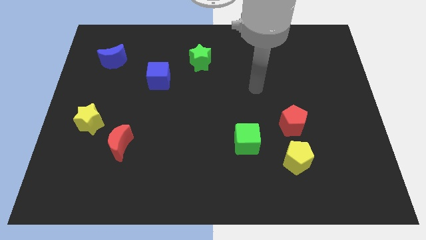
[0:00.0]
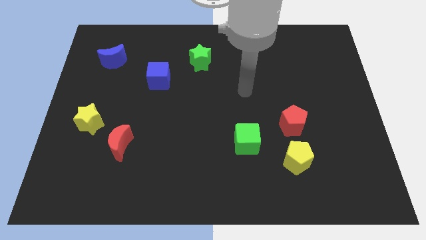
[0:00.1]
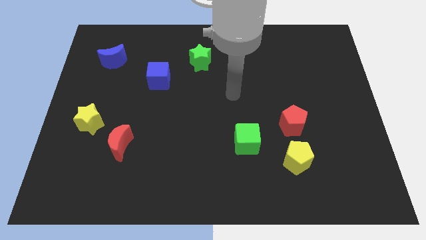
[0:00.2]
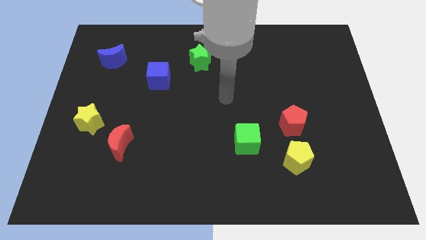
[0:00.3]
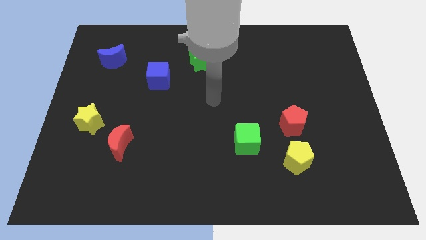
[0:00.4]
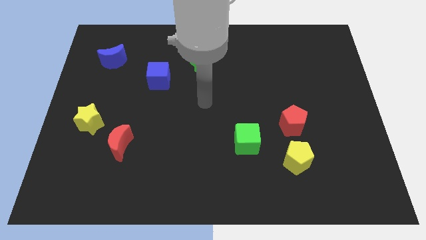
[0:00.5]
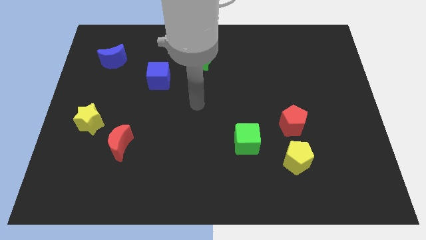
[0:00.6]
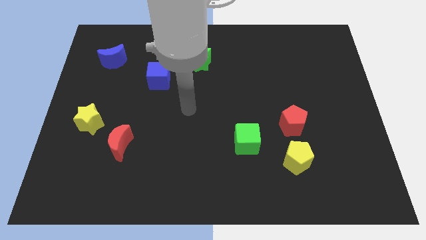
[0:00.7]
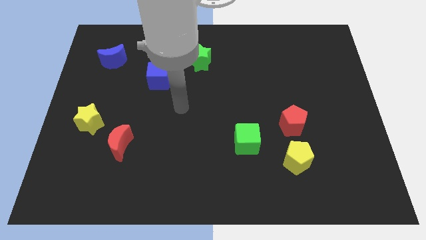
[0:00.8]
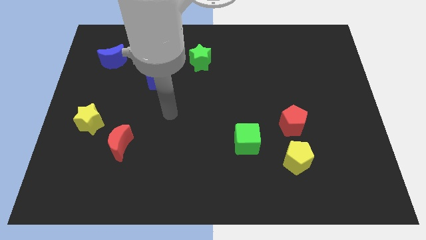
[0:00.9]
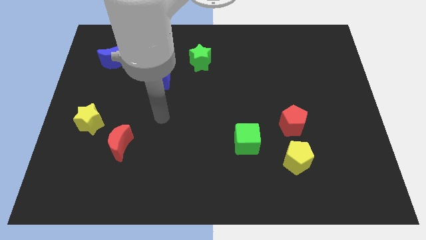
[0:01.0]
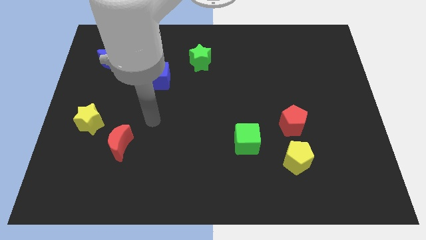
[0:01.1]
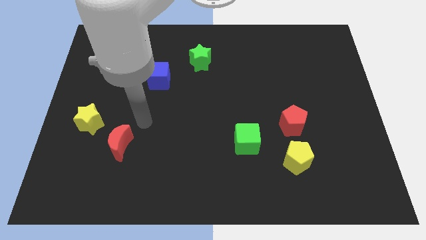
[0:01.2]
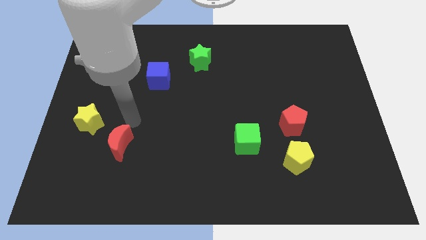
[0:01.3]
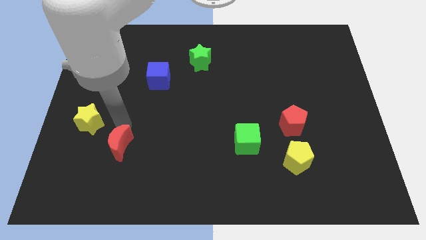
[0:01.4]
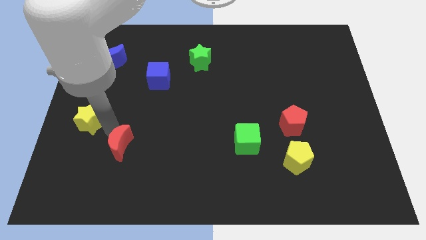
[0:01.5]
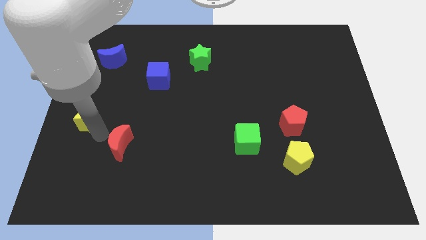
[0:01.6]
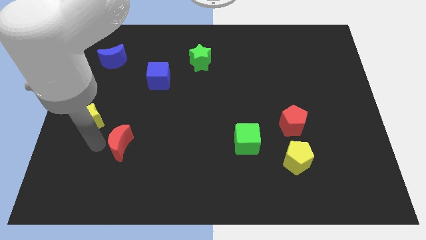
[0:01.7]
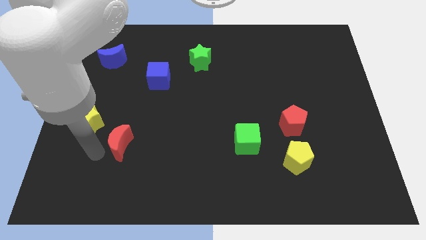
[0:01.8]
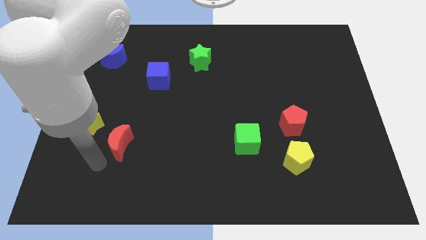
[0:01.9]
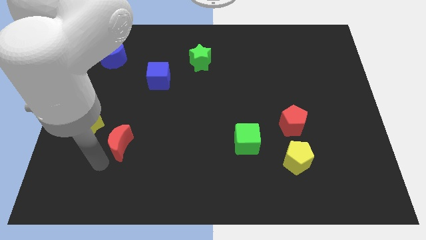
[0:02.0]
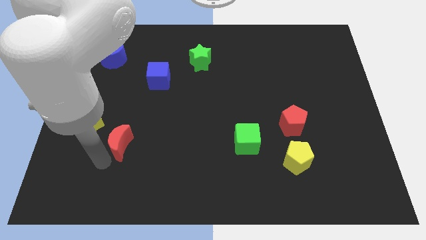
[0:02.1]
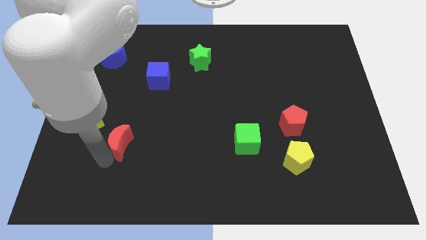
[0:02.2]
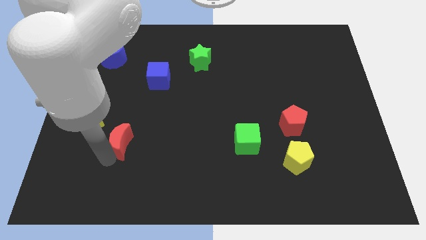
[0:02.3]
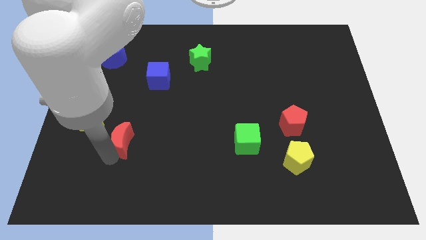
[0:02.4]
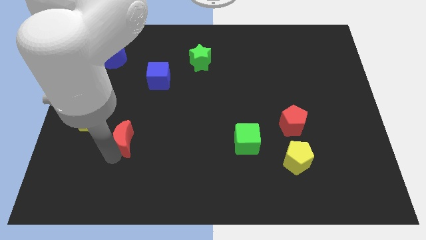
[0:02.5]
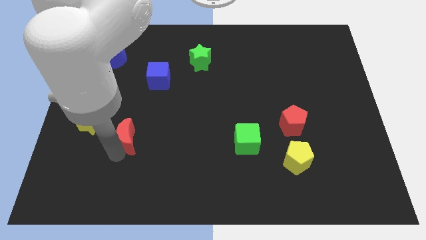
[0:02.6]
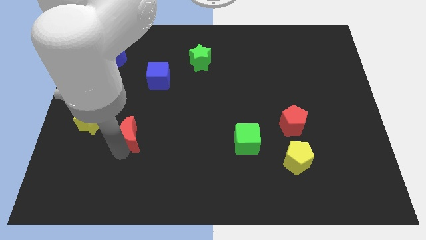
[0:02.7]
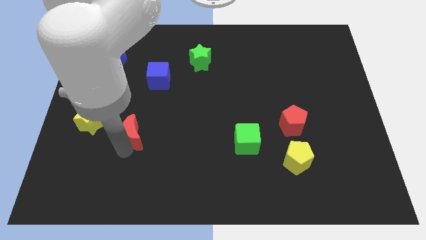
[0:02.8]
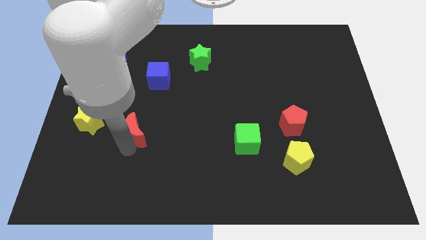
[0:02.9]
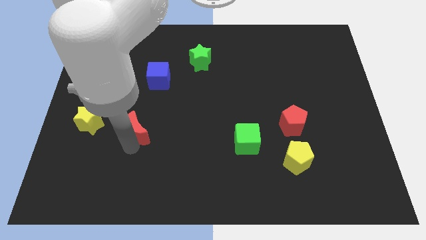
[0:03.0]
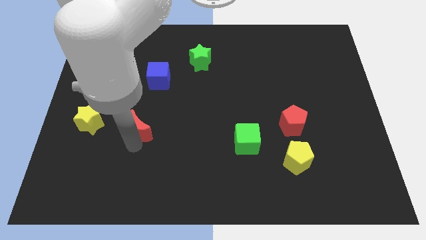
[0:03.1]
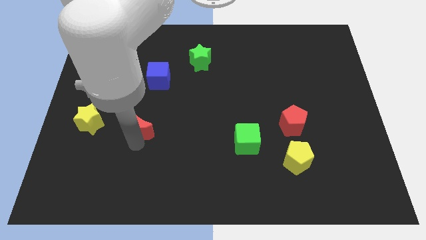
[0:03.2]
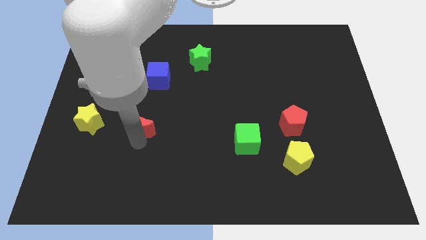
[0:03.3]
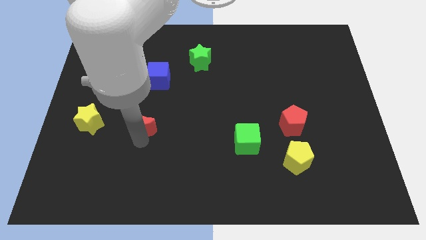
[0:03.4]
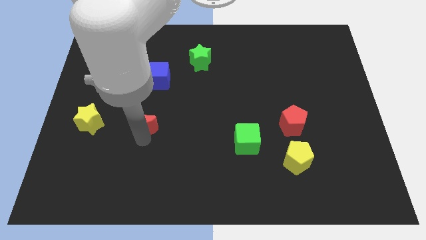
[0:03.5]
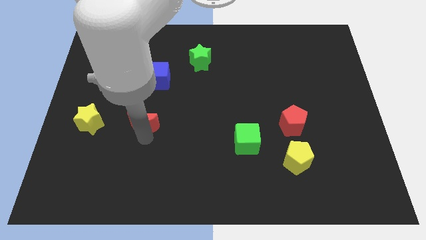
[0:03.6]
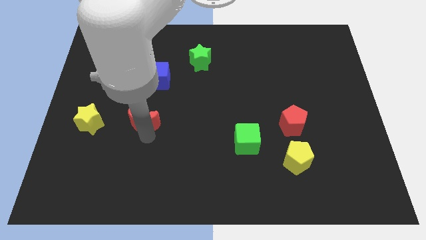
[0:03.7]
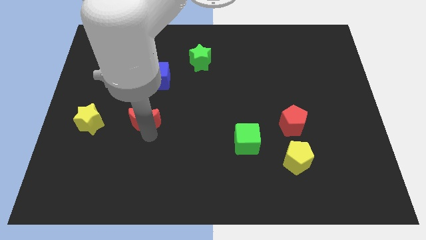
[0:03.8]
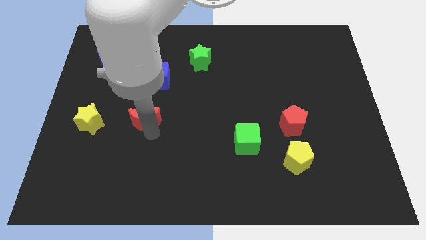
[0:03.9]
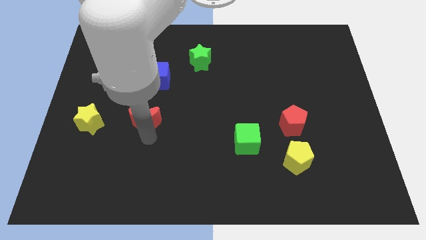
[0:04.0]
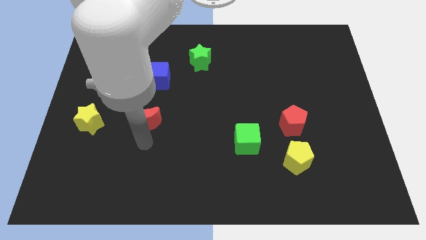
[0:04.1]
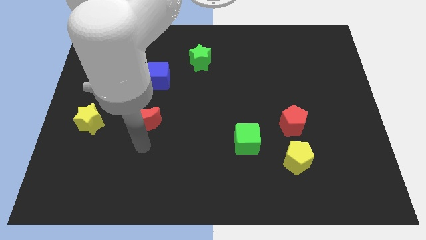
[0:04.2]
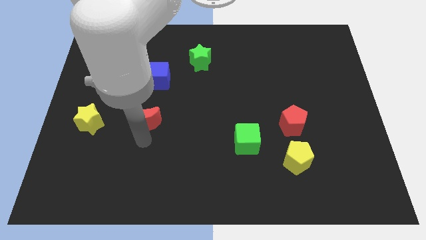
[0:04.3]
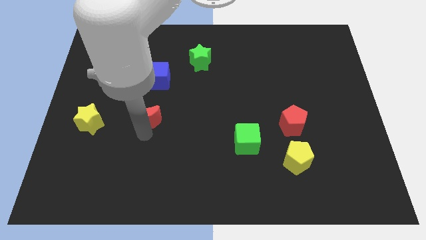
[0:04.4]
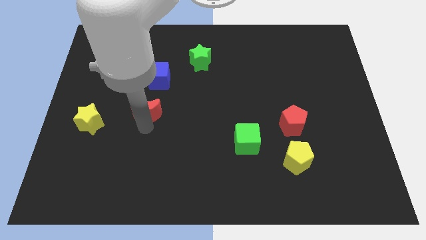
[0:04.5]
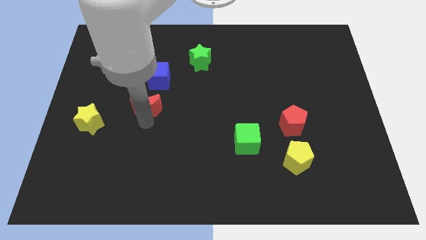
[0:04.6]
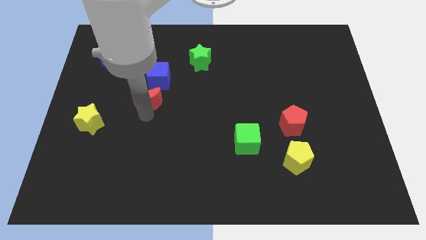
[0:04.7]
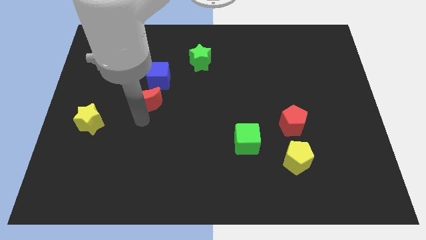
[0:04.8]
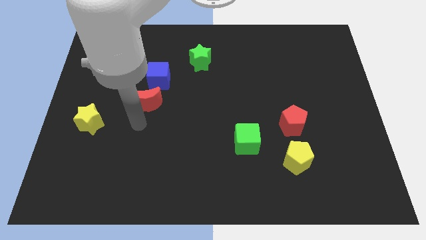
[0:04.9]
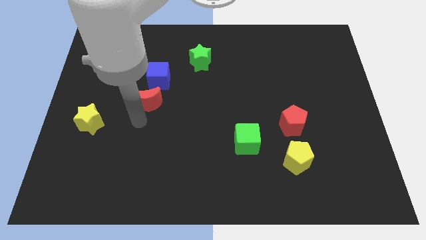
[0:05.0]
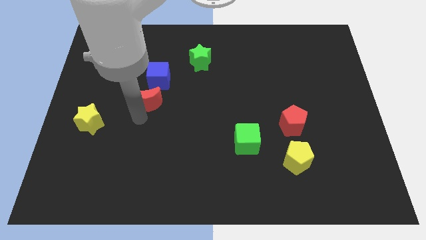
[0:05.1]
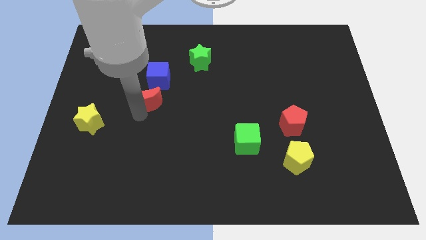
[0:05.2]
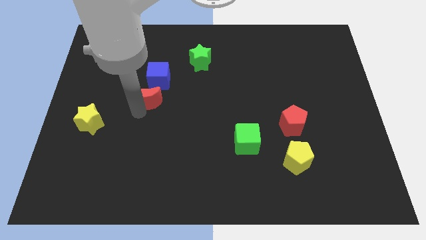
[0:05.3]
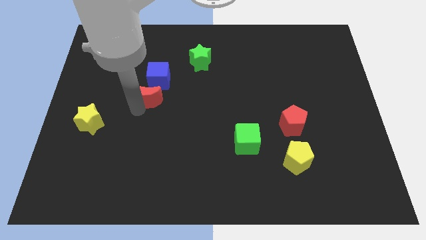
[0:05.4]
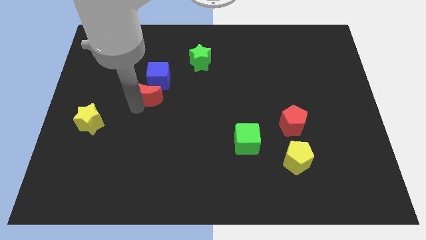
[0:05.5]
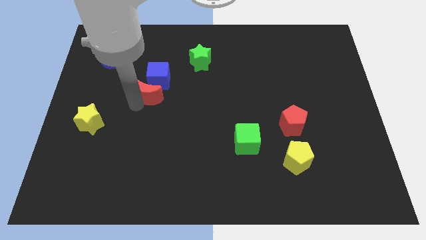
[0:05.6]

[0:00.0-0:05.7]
put the red moon towards the blue cube

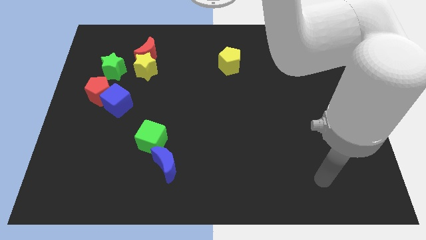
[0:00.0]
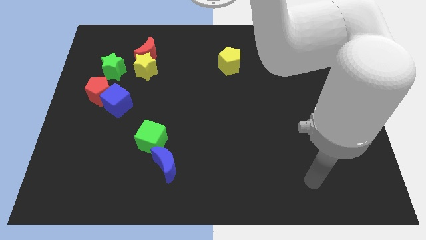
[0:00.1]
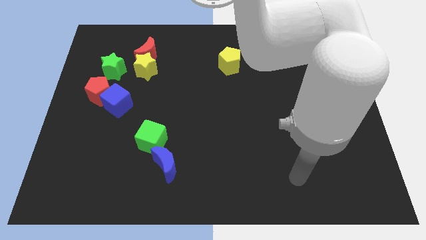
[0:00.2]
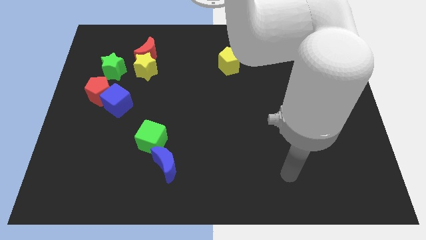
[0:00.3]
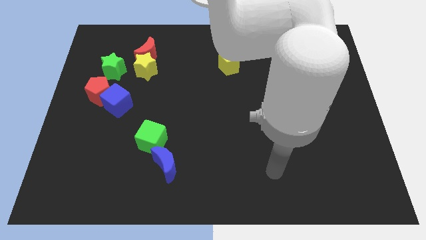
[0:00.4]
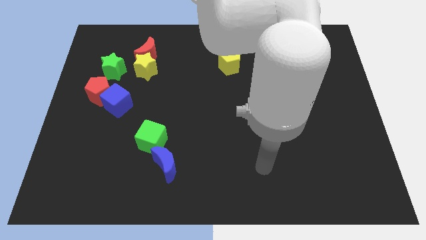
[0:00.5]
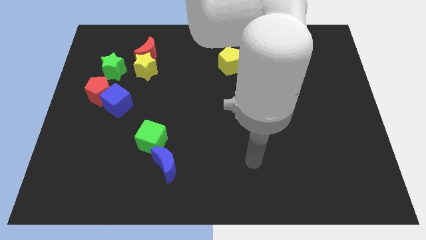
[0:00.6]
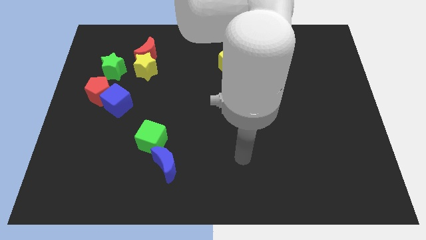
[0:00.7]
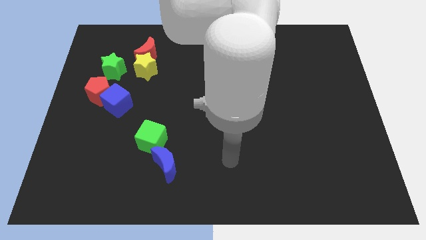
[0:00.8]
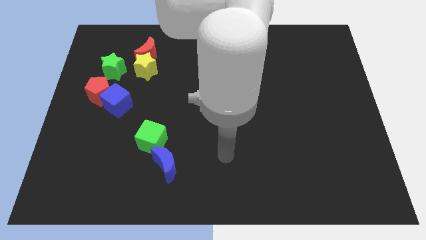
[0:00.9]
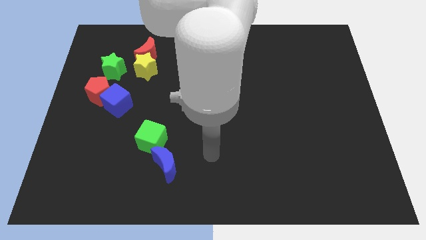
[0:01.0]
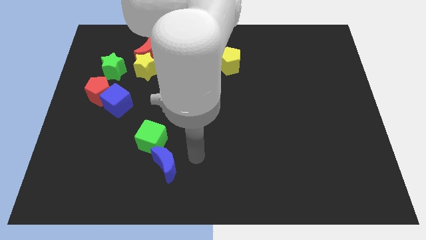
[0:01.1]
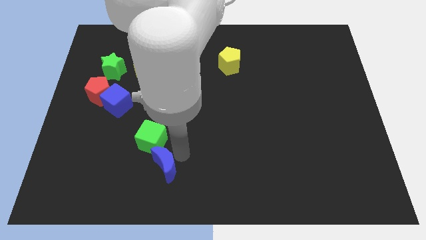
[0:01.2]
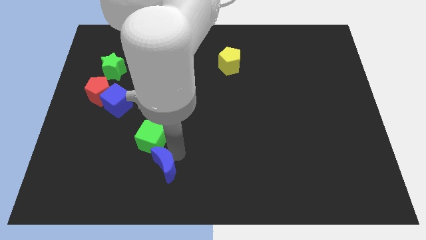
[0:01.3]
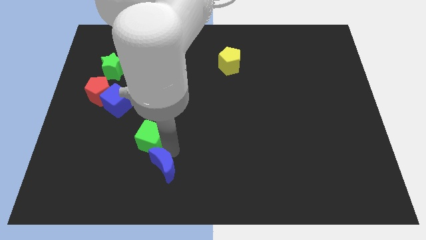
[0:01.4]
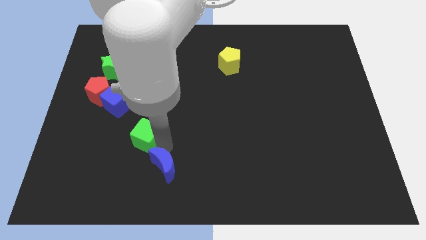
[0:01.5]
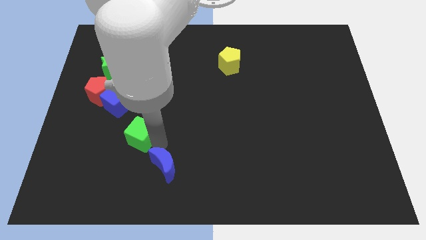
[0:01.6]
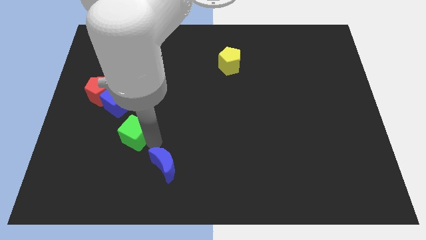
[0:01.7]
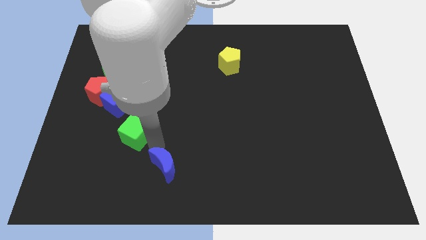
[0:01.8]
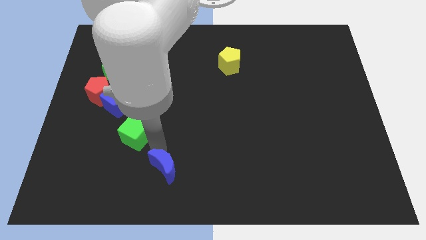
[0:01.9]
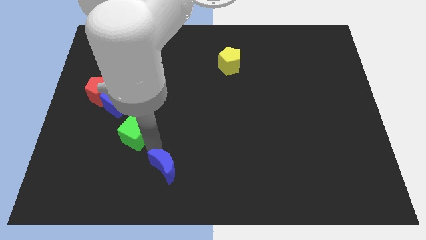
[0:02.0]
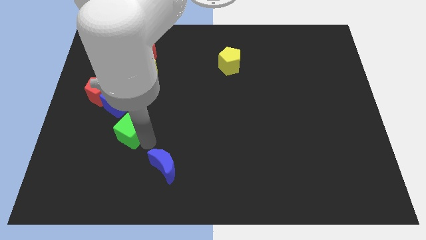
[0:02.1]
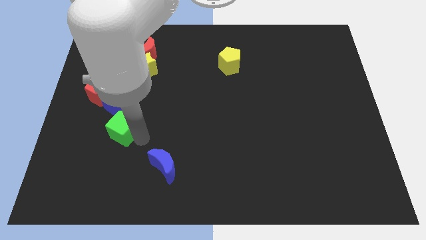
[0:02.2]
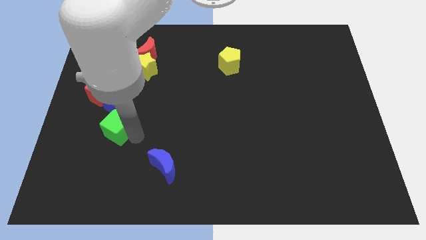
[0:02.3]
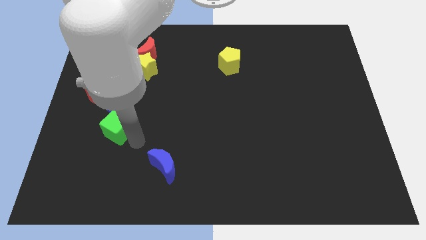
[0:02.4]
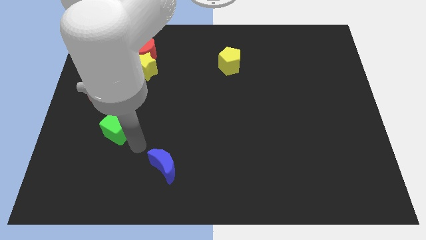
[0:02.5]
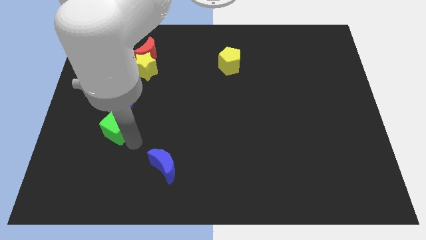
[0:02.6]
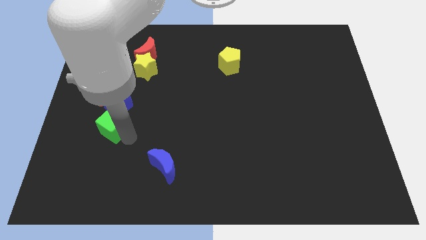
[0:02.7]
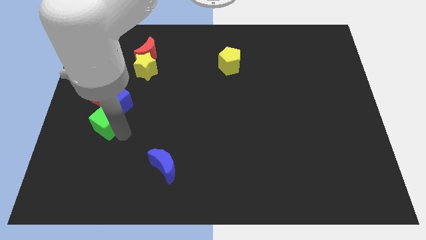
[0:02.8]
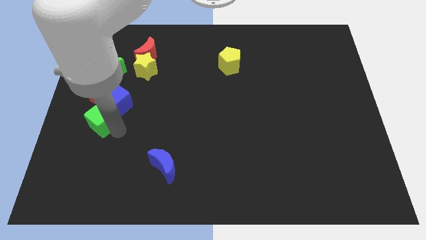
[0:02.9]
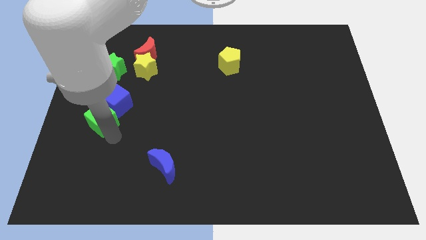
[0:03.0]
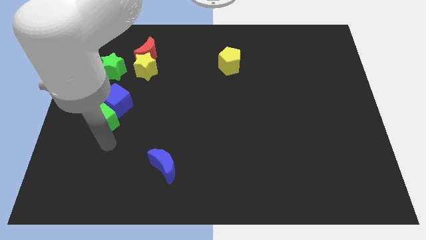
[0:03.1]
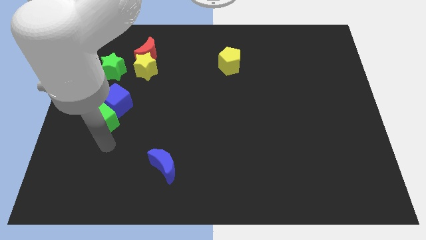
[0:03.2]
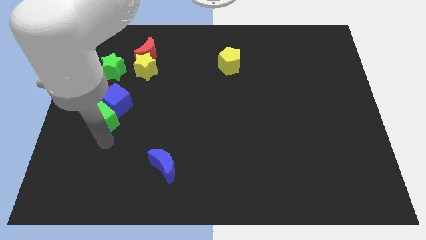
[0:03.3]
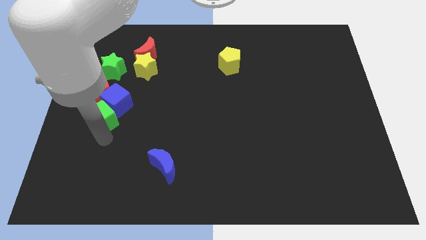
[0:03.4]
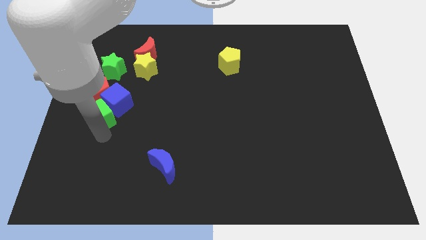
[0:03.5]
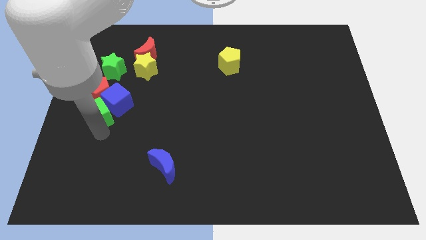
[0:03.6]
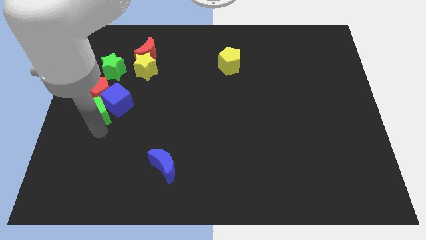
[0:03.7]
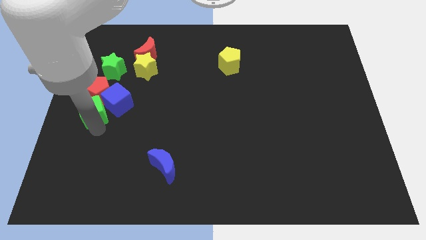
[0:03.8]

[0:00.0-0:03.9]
move the green cube towards the red pentagon
